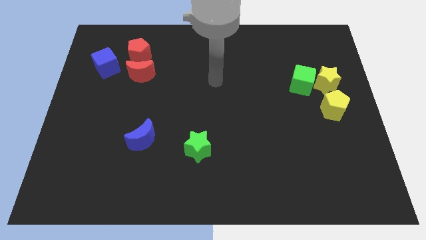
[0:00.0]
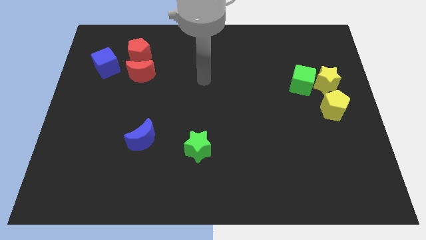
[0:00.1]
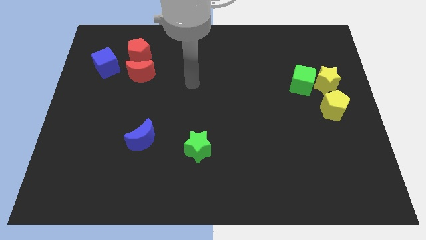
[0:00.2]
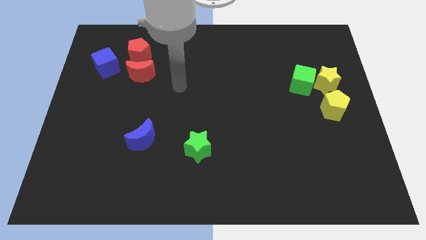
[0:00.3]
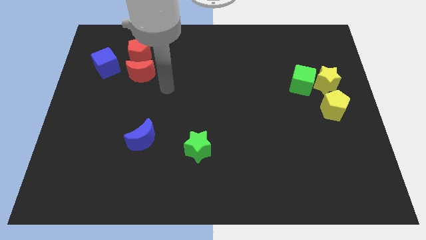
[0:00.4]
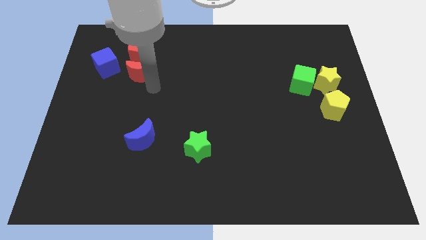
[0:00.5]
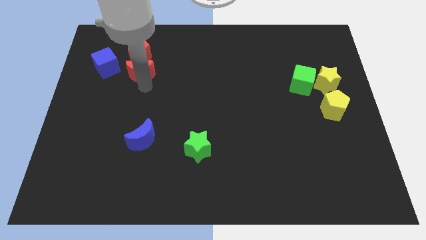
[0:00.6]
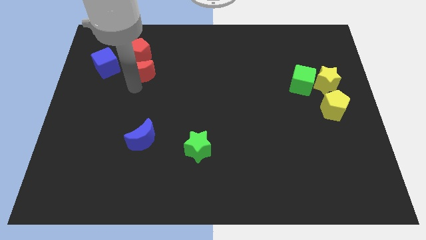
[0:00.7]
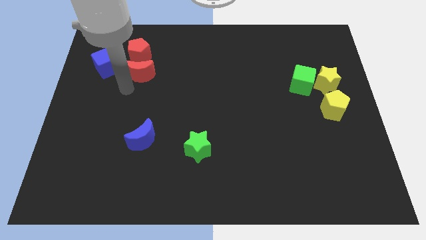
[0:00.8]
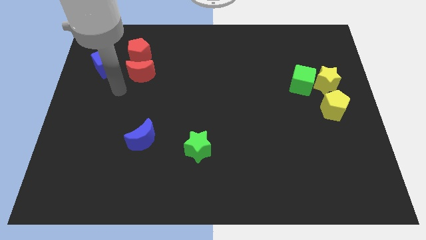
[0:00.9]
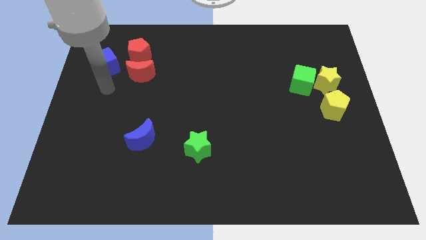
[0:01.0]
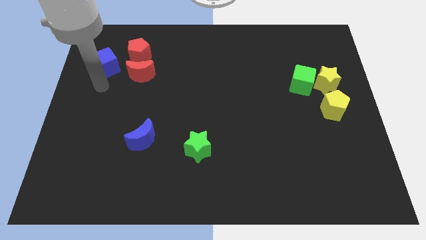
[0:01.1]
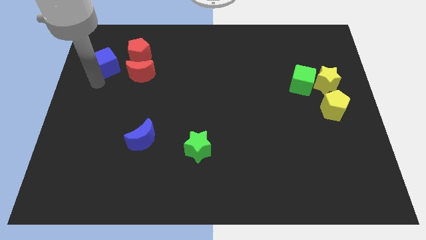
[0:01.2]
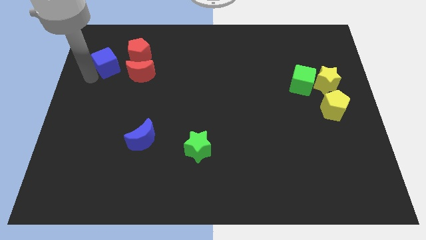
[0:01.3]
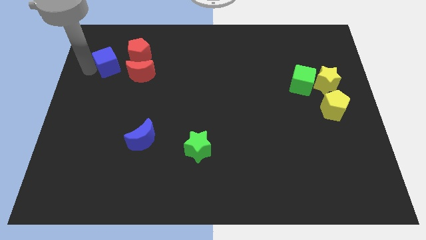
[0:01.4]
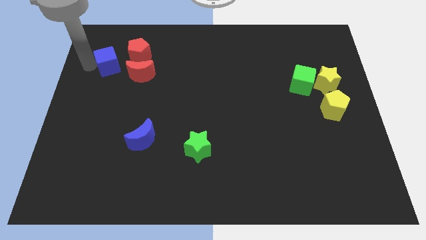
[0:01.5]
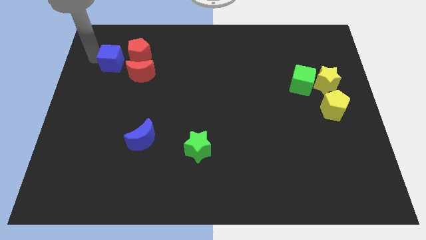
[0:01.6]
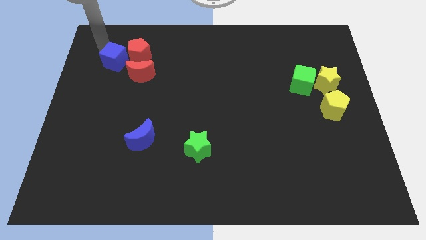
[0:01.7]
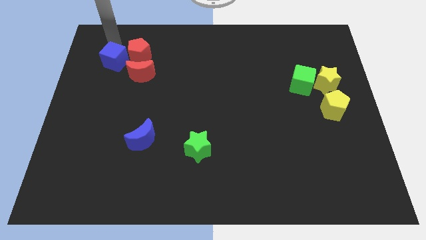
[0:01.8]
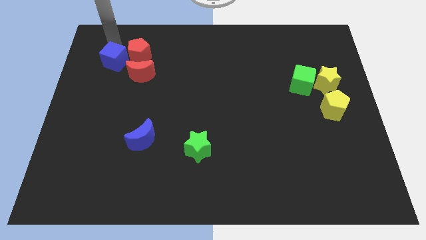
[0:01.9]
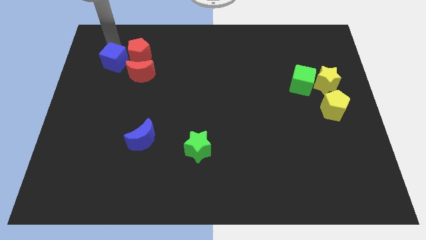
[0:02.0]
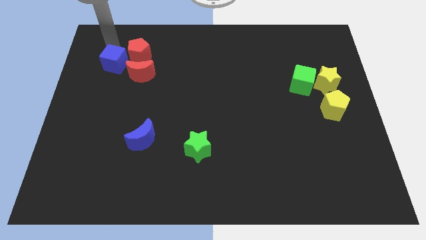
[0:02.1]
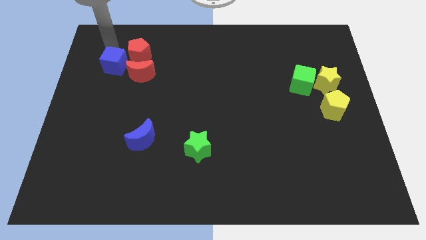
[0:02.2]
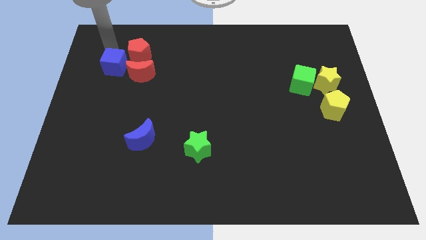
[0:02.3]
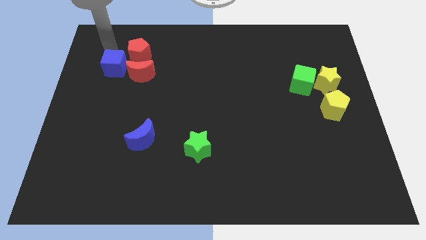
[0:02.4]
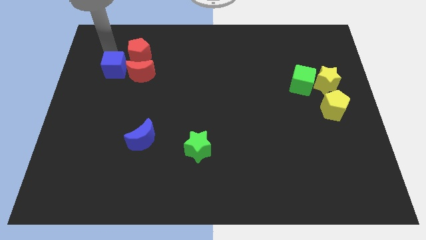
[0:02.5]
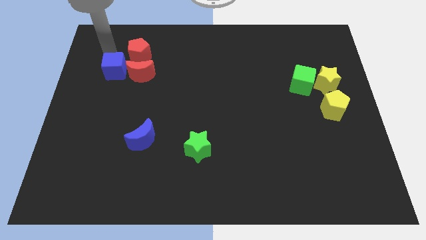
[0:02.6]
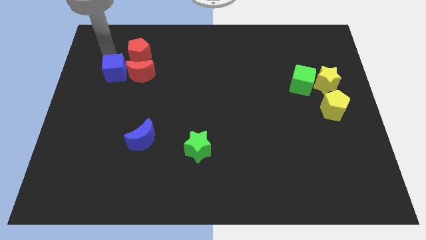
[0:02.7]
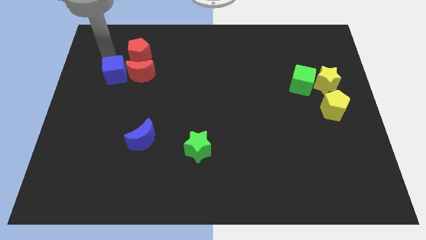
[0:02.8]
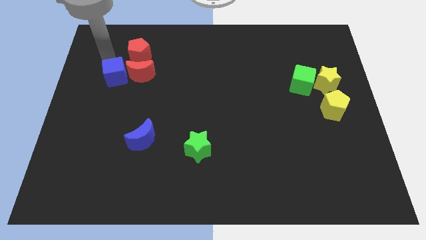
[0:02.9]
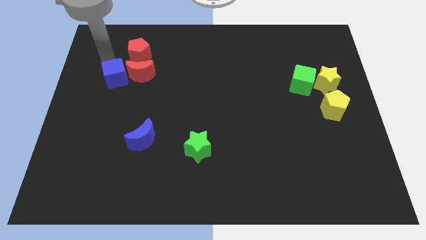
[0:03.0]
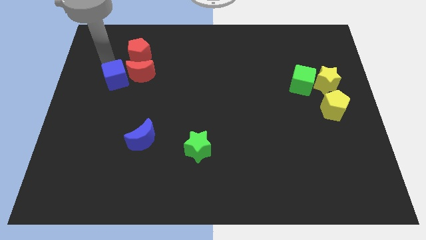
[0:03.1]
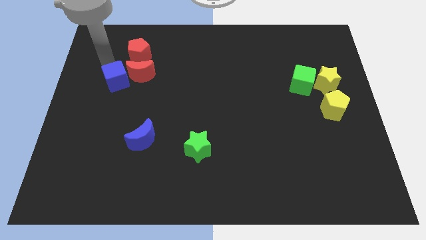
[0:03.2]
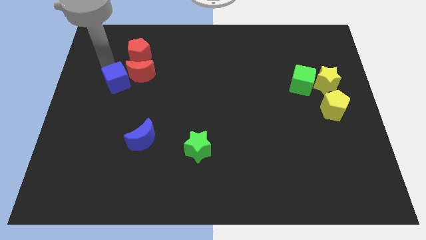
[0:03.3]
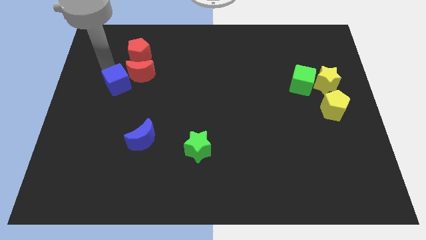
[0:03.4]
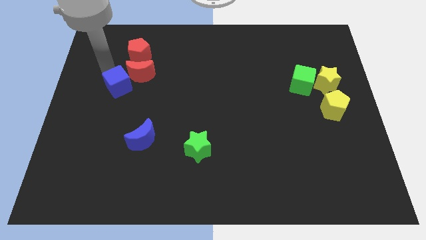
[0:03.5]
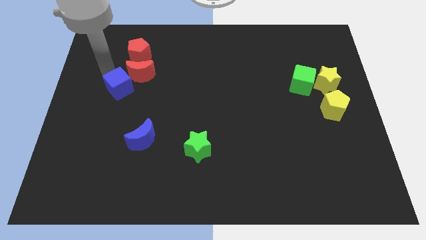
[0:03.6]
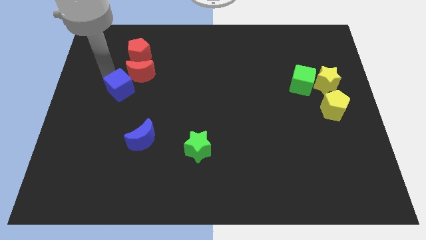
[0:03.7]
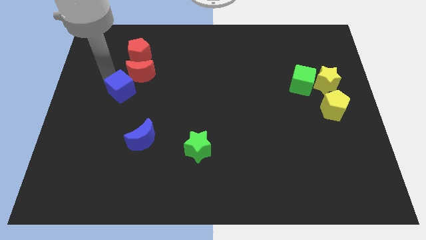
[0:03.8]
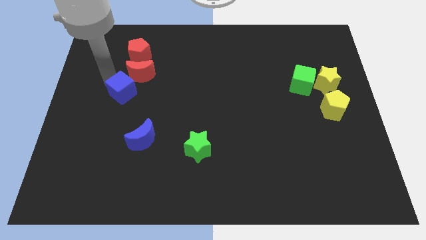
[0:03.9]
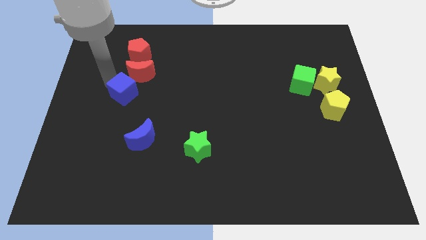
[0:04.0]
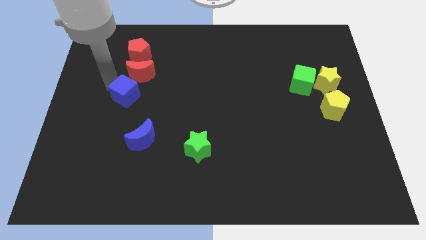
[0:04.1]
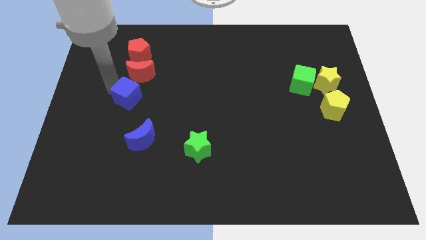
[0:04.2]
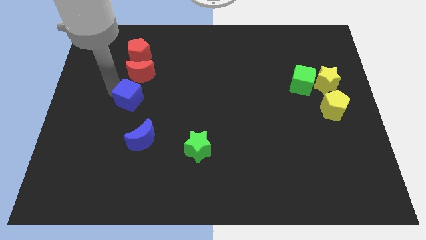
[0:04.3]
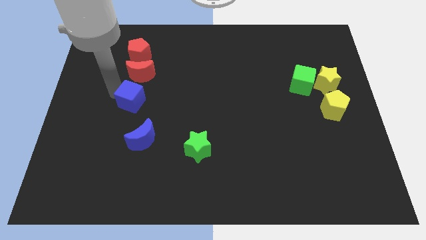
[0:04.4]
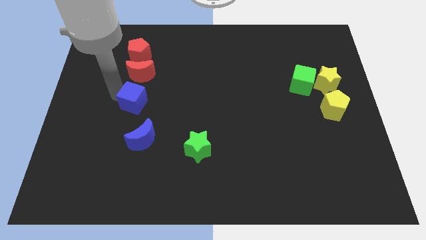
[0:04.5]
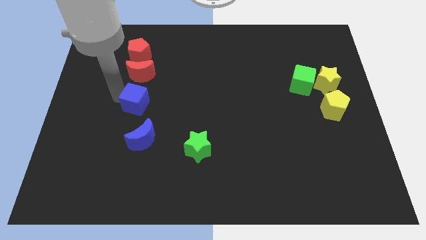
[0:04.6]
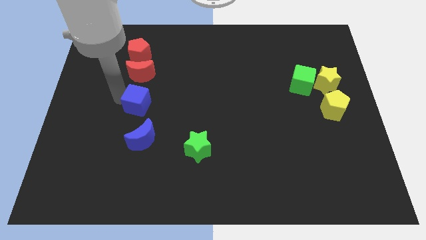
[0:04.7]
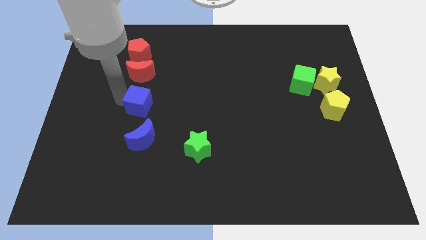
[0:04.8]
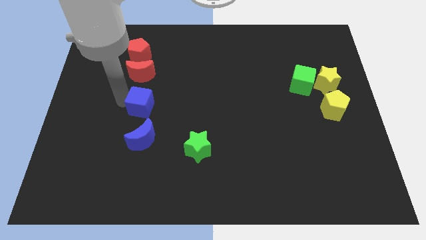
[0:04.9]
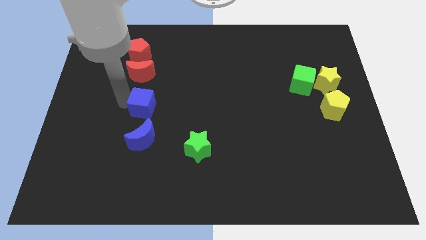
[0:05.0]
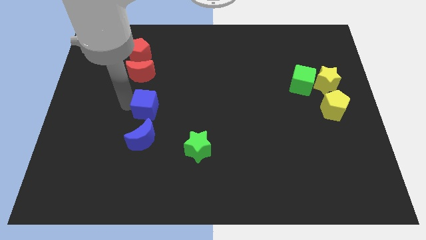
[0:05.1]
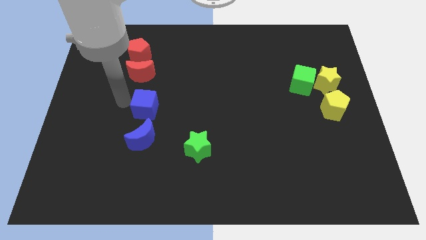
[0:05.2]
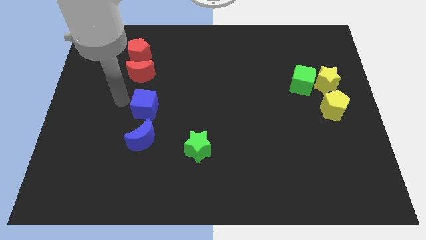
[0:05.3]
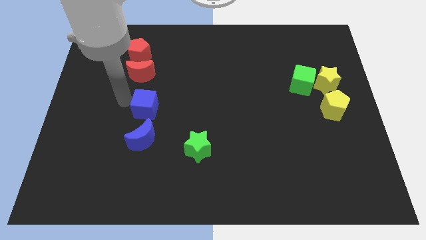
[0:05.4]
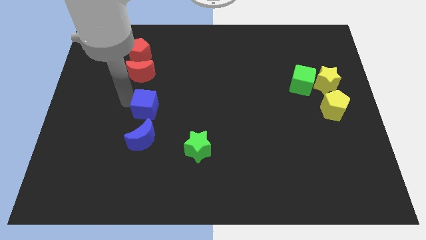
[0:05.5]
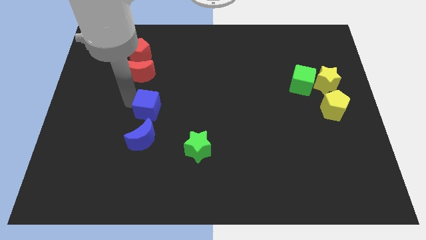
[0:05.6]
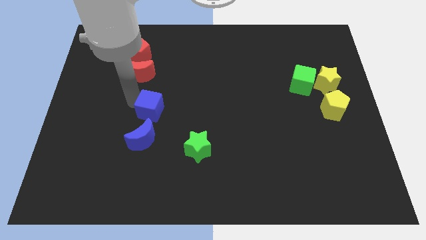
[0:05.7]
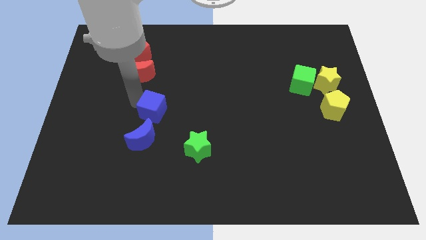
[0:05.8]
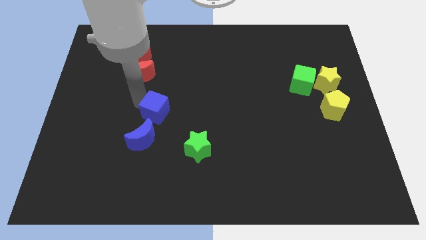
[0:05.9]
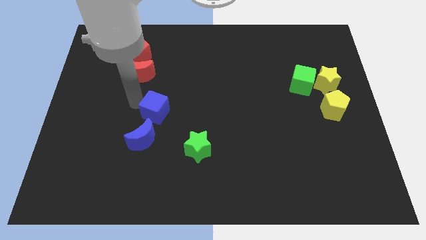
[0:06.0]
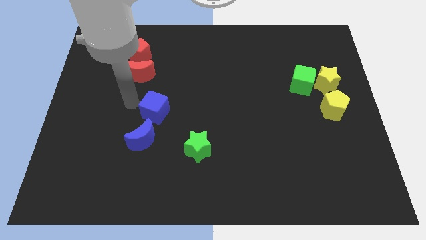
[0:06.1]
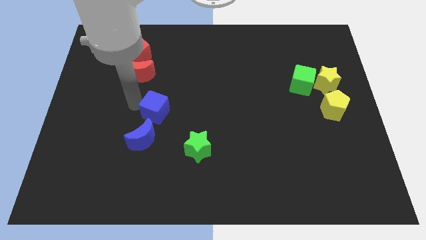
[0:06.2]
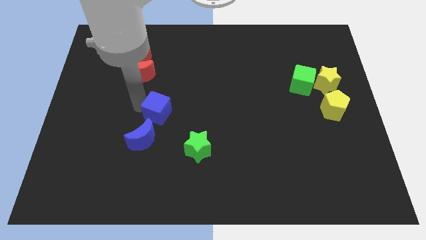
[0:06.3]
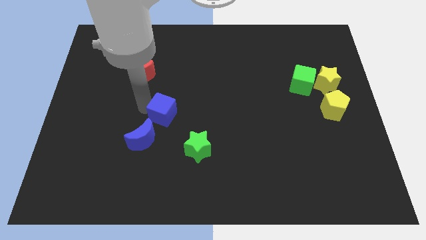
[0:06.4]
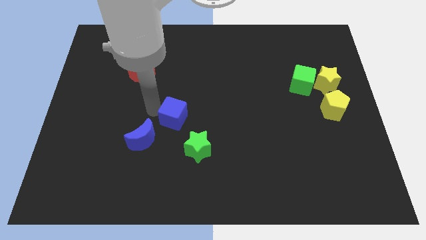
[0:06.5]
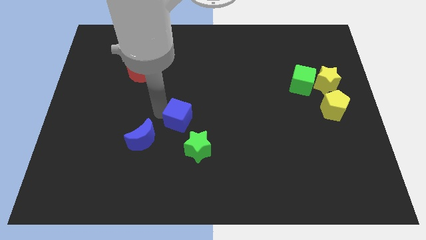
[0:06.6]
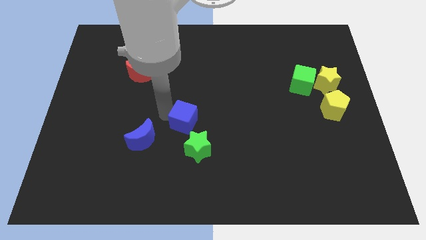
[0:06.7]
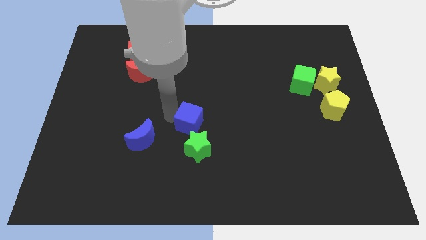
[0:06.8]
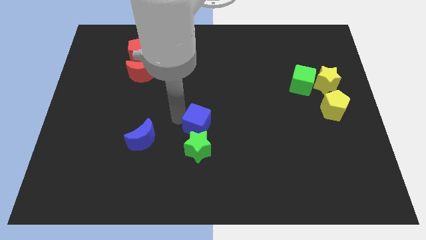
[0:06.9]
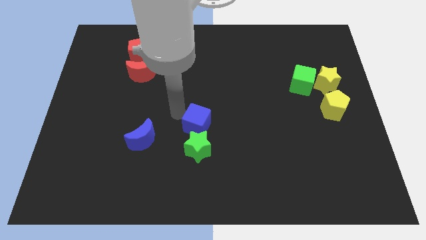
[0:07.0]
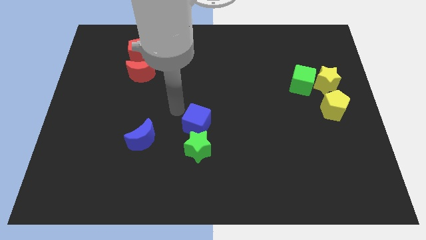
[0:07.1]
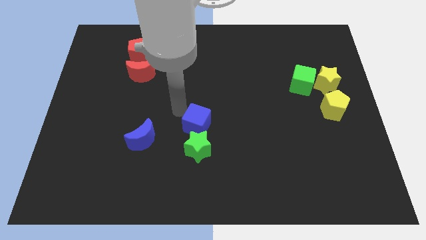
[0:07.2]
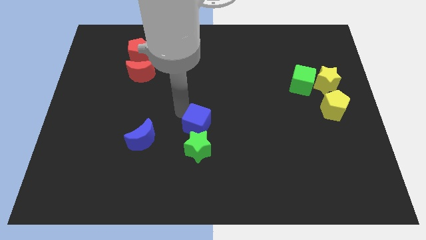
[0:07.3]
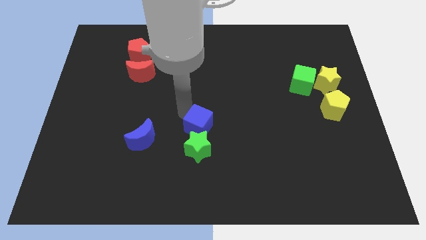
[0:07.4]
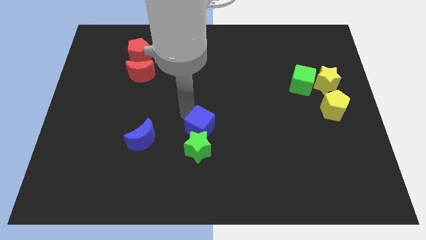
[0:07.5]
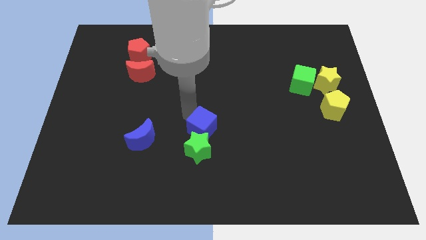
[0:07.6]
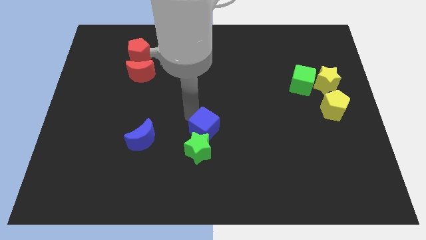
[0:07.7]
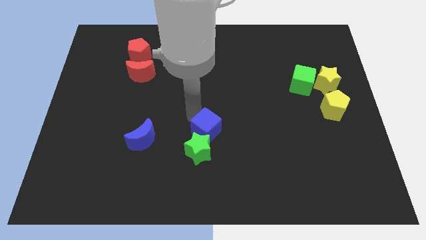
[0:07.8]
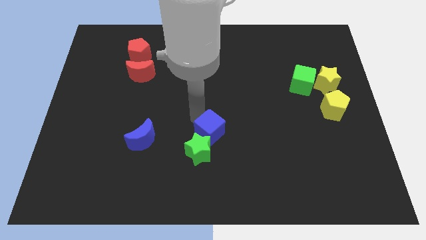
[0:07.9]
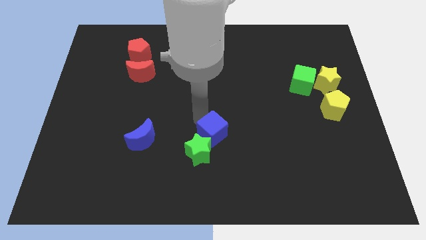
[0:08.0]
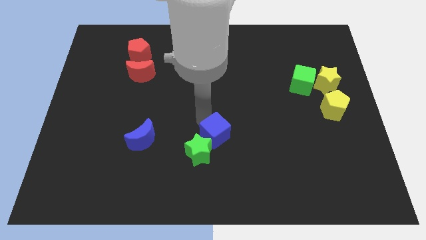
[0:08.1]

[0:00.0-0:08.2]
move the blue cube to the right of the green star
